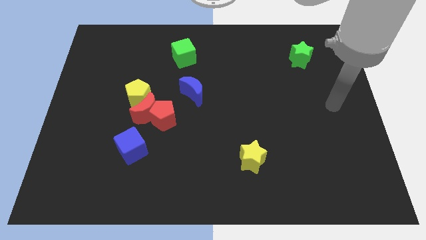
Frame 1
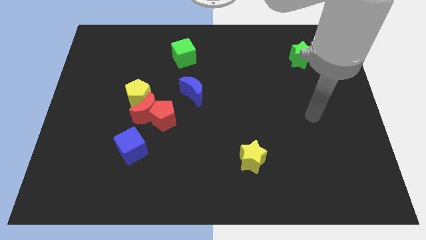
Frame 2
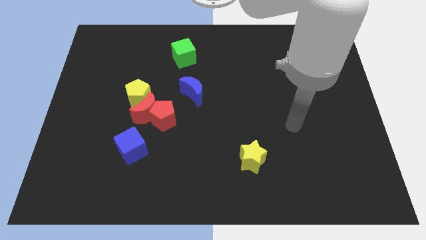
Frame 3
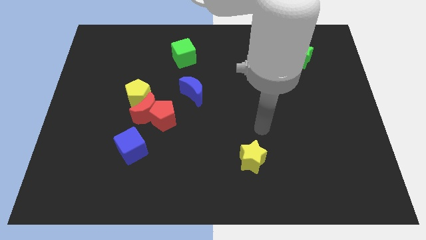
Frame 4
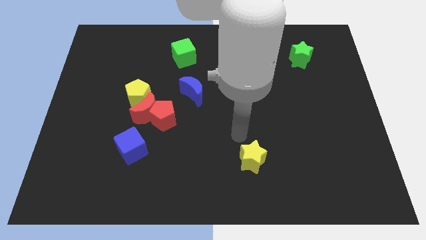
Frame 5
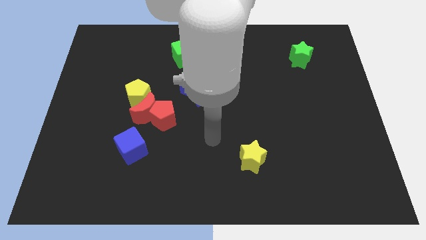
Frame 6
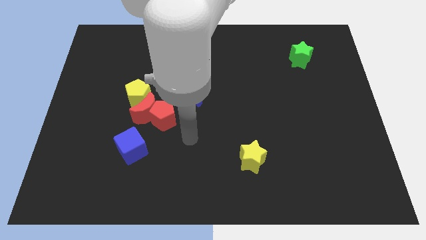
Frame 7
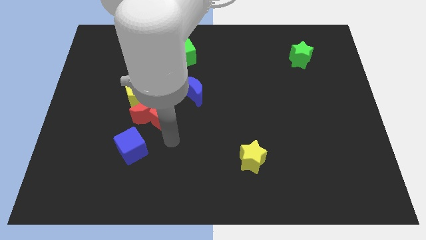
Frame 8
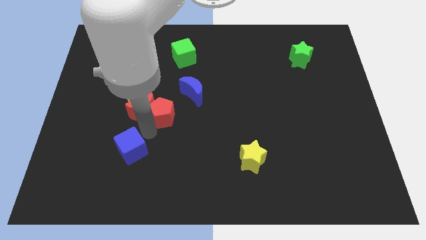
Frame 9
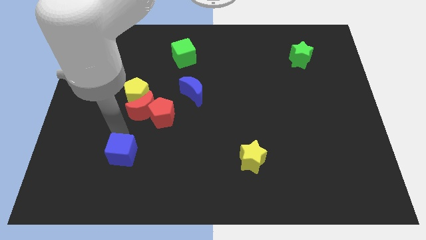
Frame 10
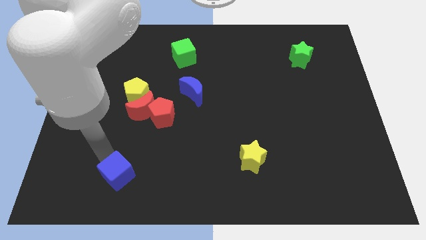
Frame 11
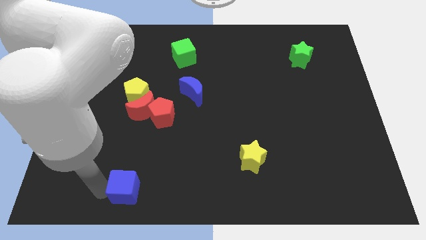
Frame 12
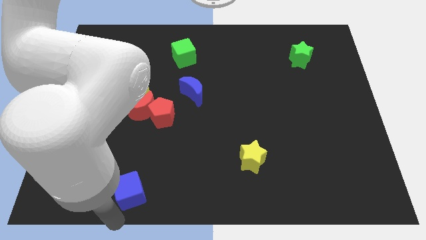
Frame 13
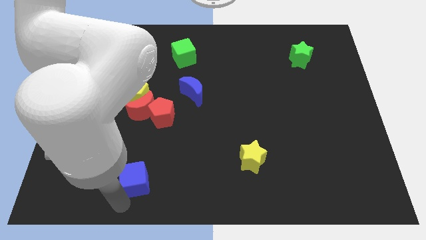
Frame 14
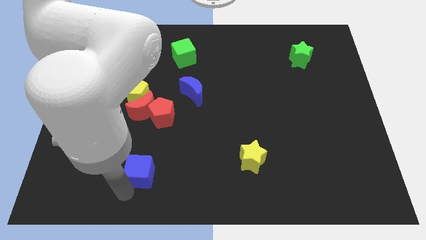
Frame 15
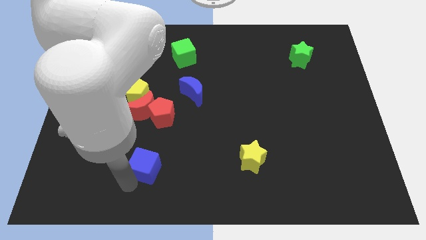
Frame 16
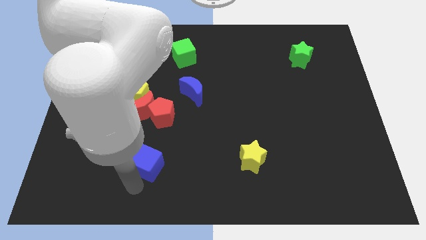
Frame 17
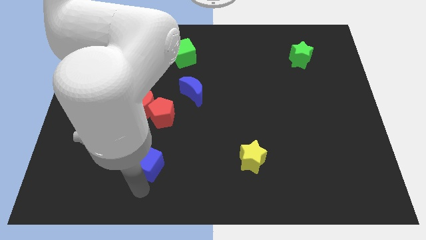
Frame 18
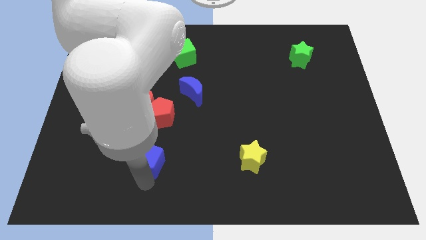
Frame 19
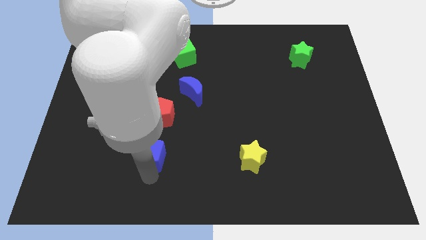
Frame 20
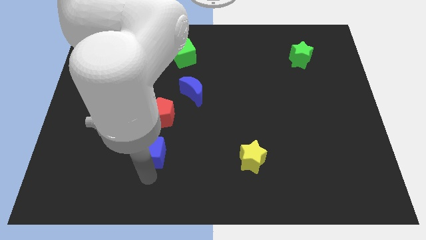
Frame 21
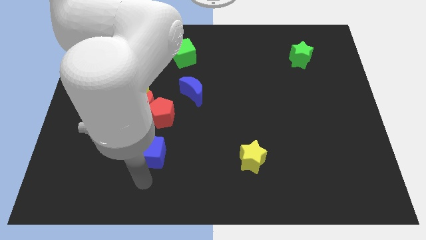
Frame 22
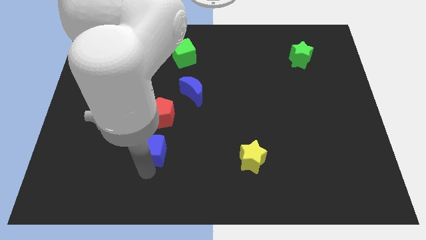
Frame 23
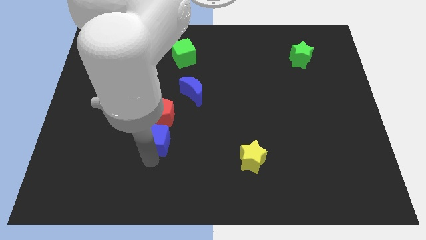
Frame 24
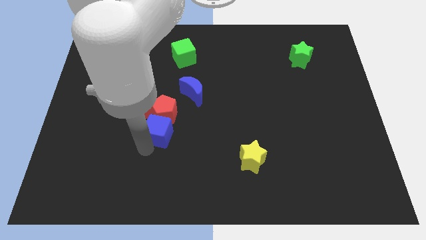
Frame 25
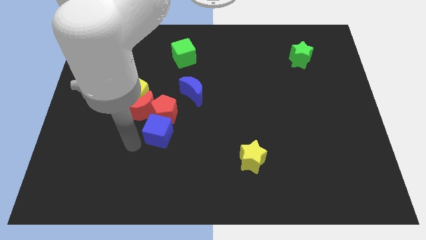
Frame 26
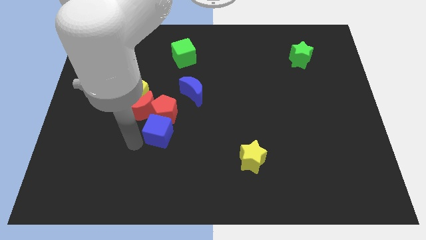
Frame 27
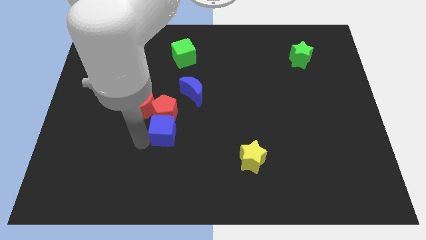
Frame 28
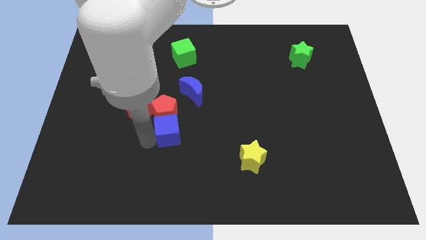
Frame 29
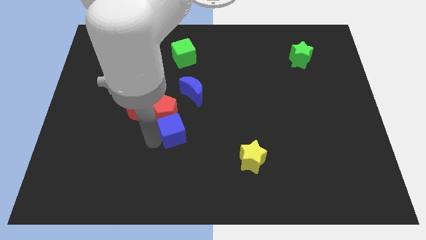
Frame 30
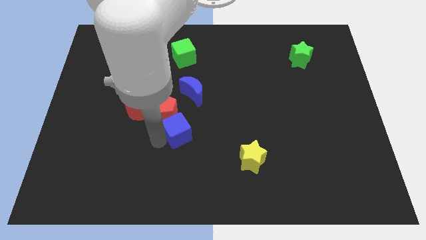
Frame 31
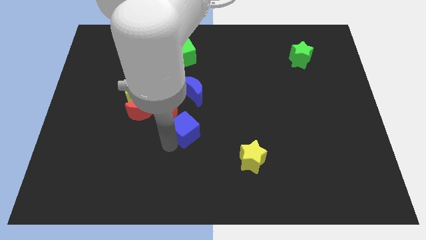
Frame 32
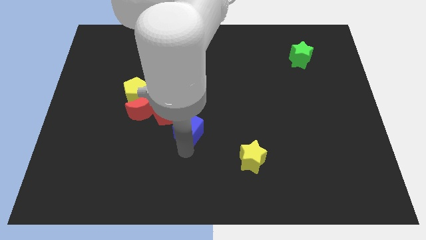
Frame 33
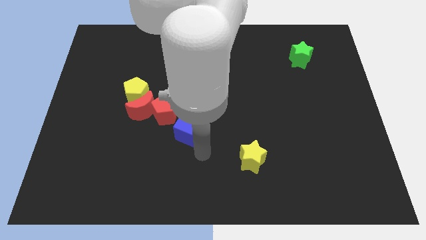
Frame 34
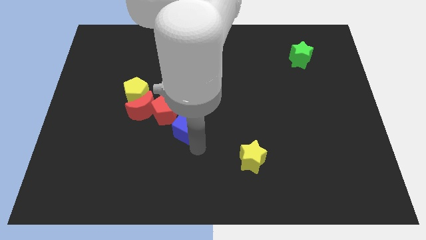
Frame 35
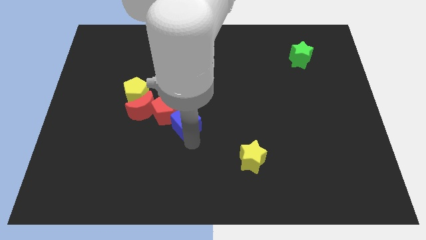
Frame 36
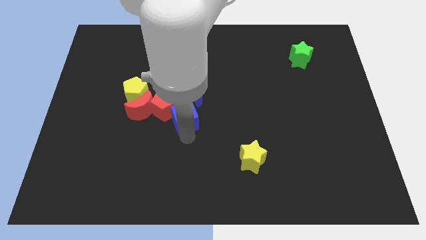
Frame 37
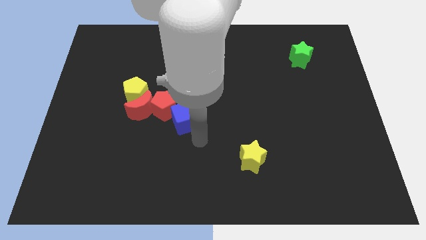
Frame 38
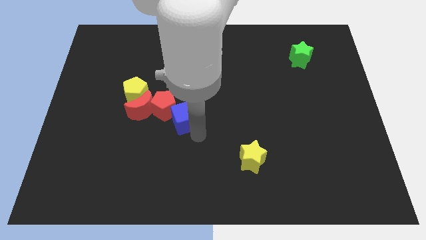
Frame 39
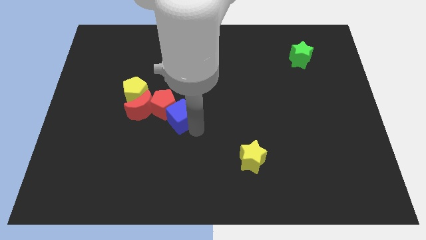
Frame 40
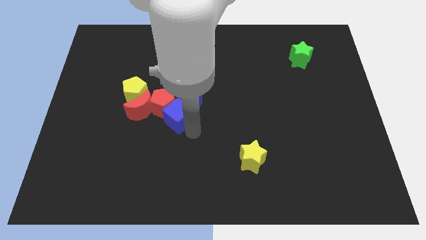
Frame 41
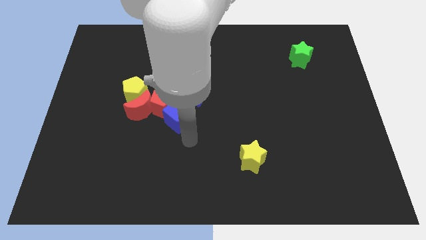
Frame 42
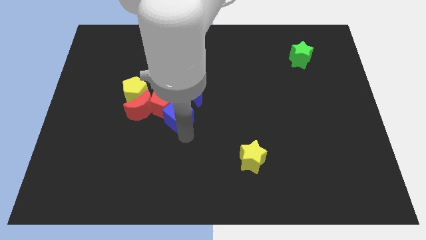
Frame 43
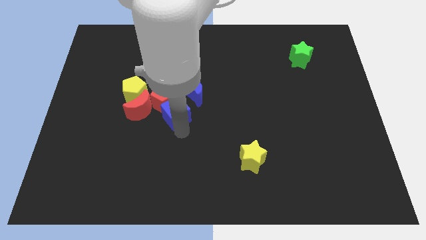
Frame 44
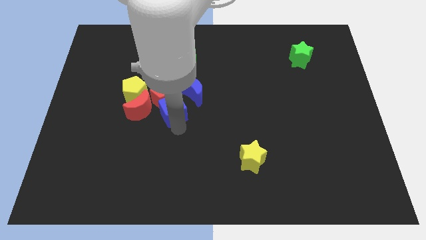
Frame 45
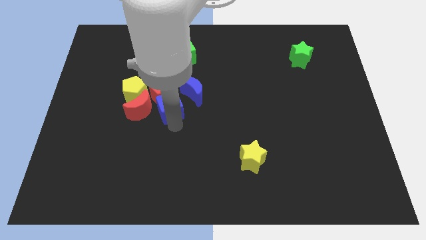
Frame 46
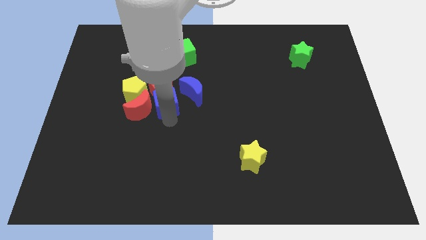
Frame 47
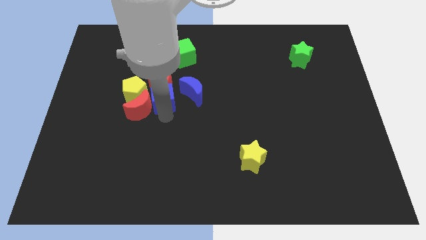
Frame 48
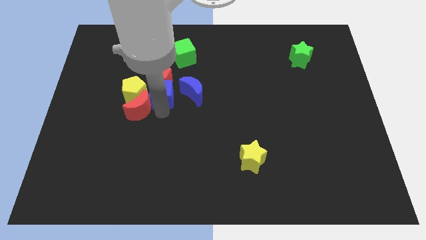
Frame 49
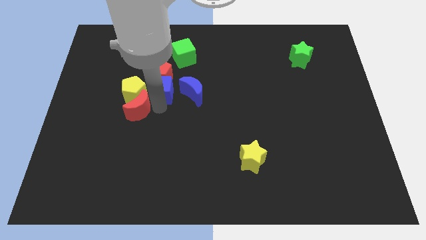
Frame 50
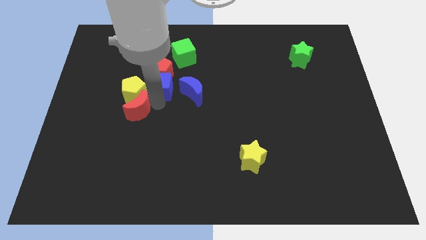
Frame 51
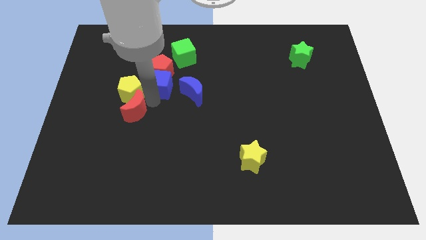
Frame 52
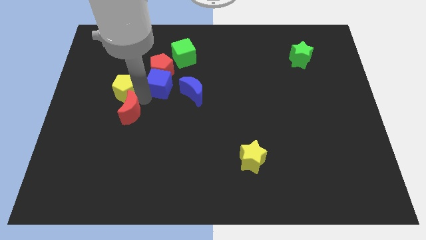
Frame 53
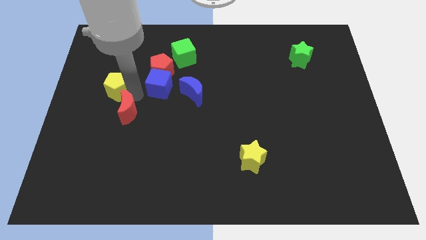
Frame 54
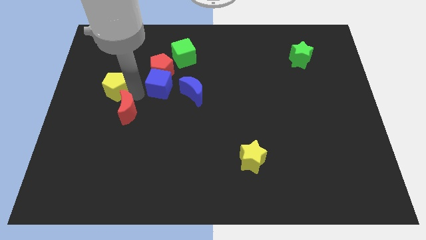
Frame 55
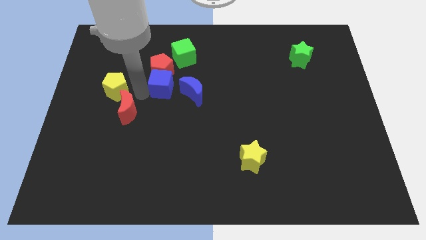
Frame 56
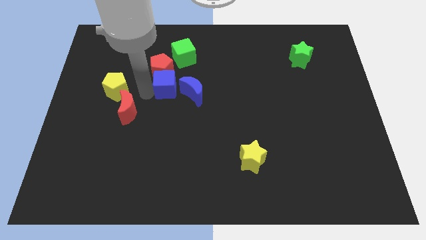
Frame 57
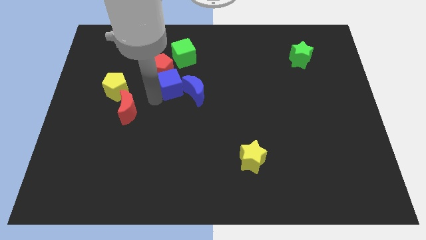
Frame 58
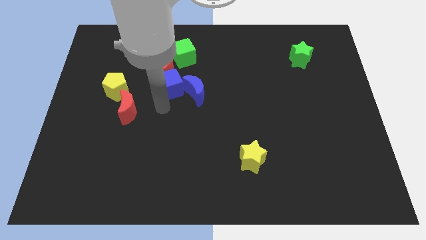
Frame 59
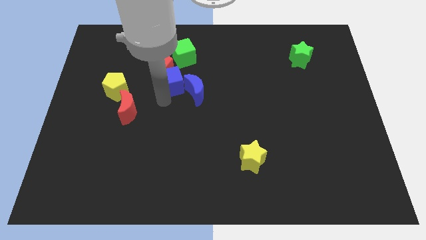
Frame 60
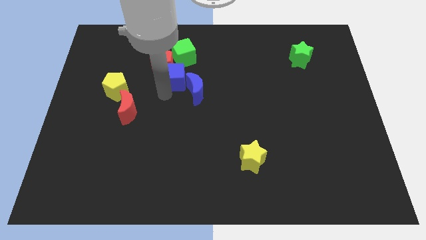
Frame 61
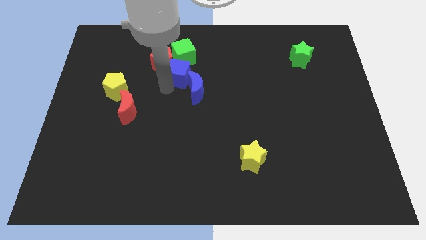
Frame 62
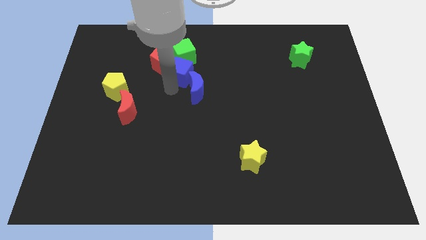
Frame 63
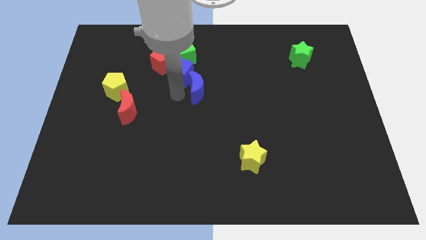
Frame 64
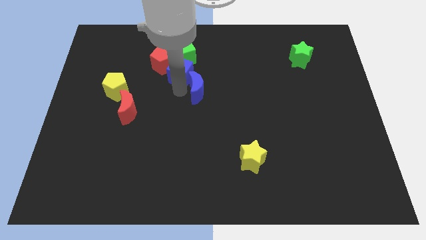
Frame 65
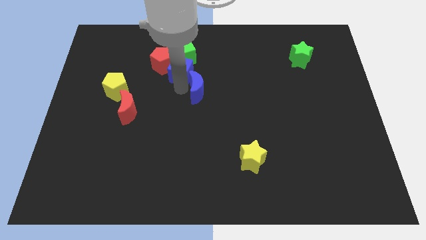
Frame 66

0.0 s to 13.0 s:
push the blue cube next to the green cube
